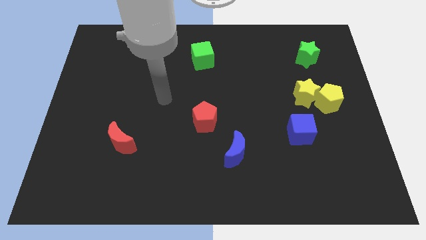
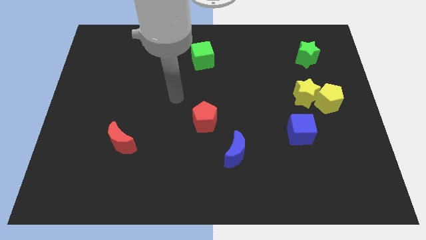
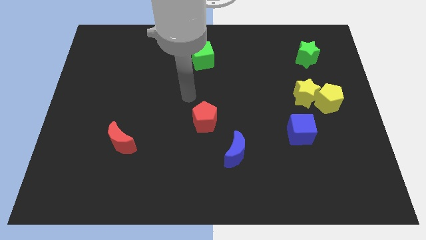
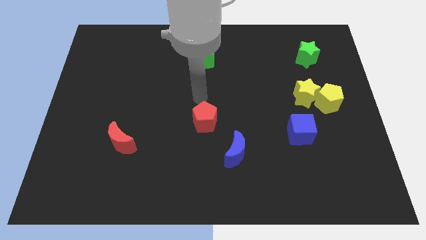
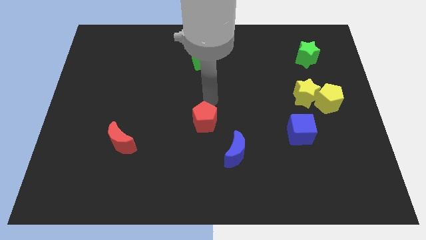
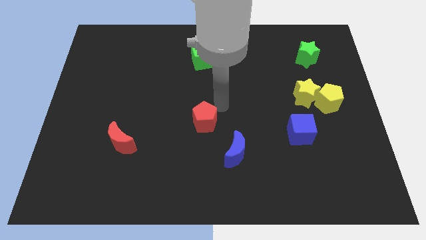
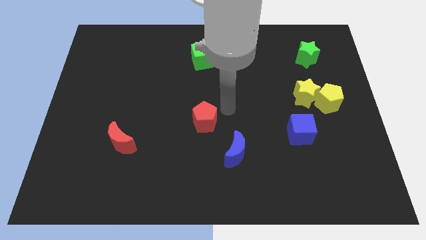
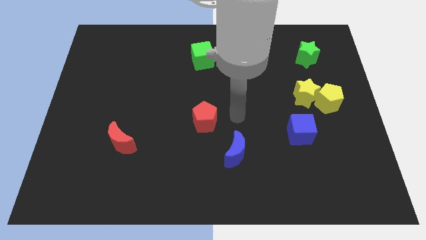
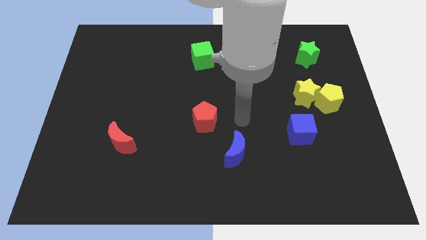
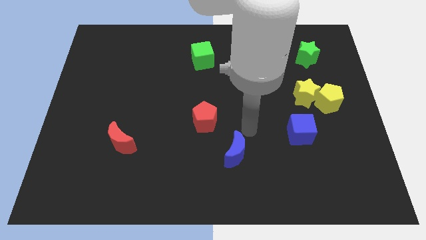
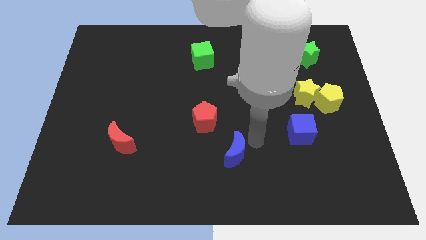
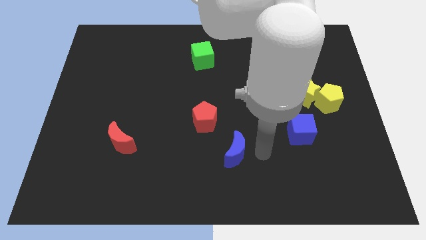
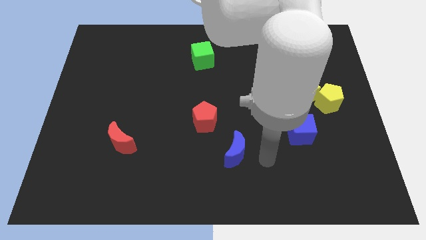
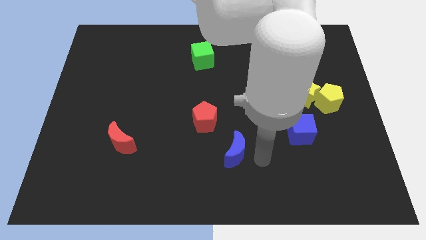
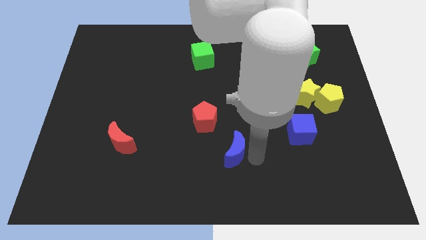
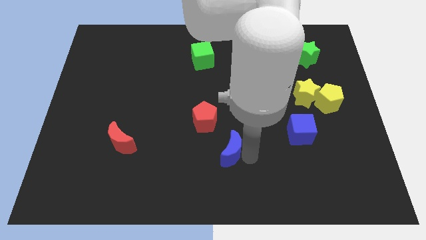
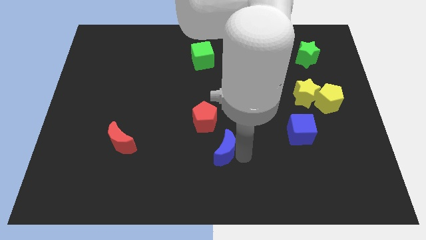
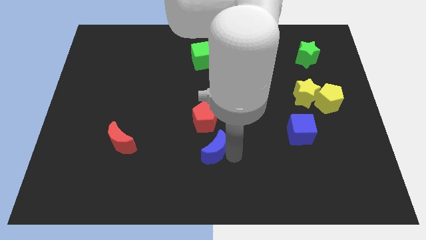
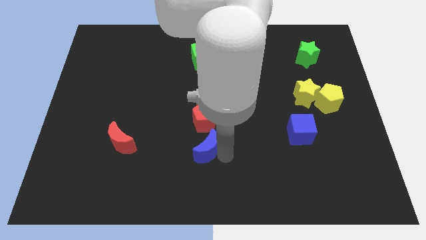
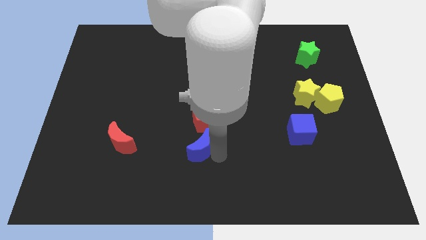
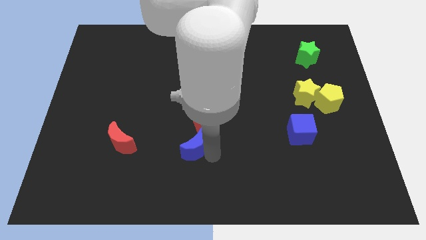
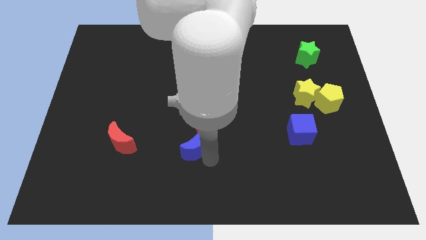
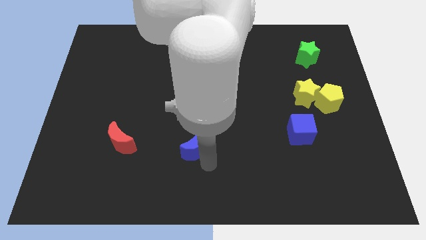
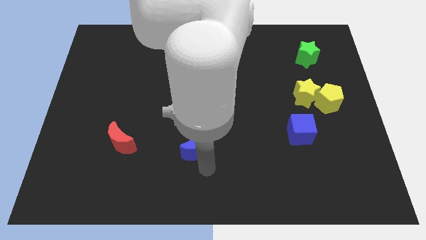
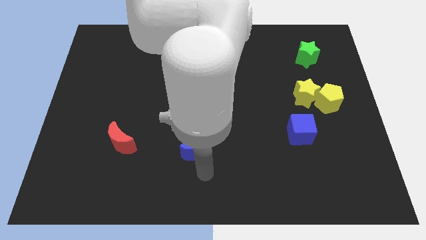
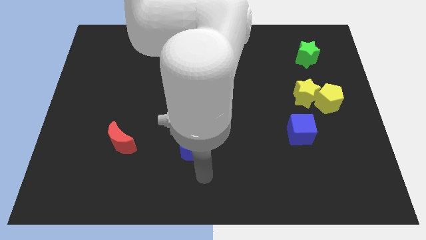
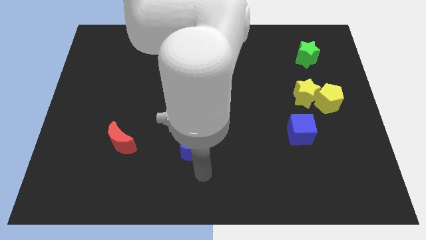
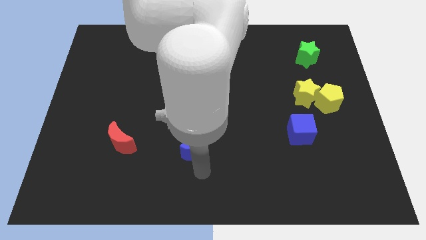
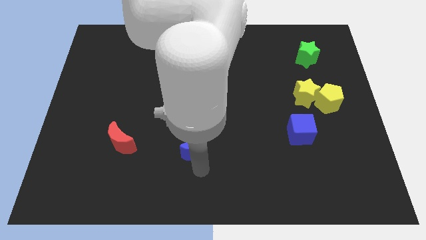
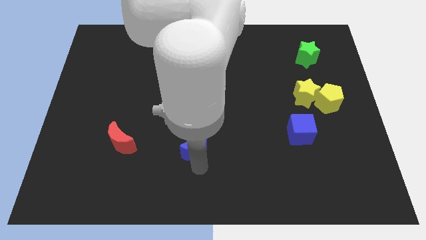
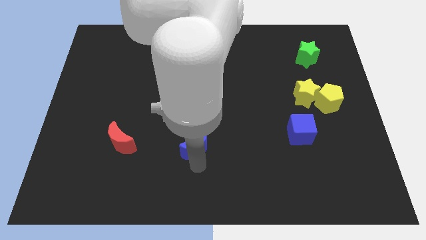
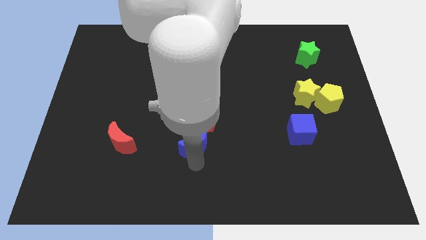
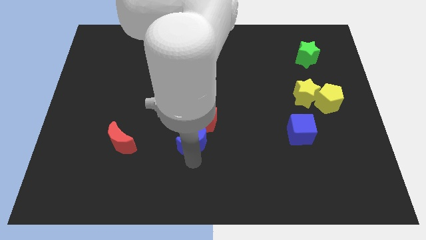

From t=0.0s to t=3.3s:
push the blue moon a bit upwards and left

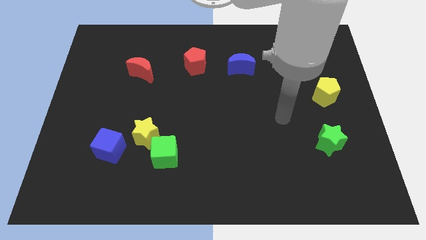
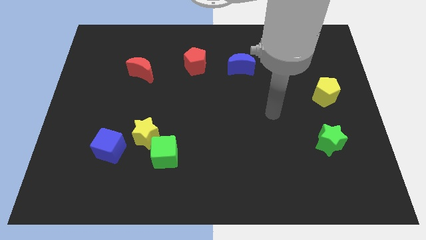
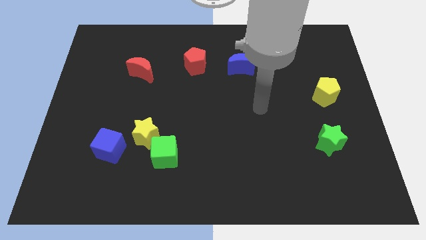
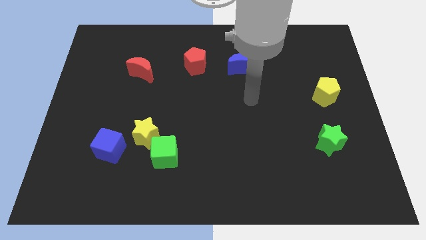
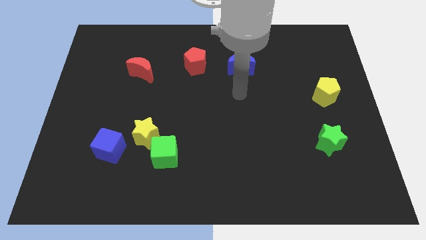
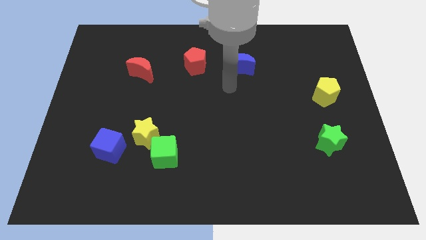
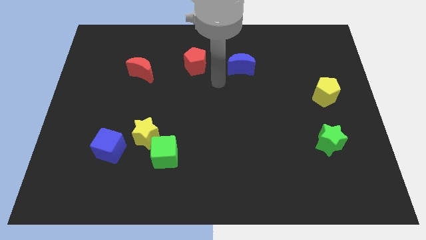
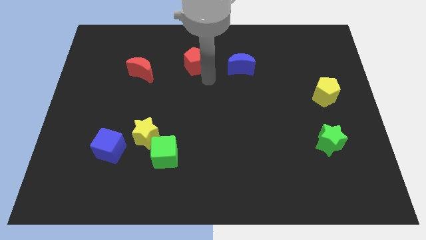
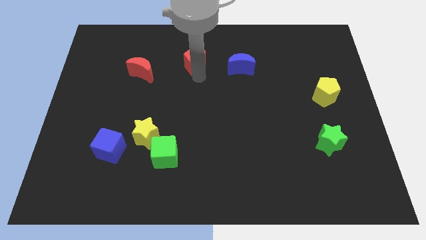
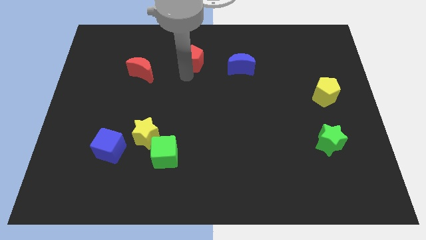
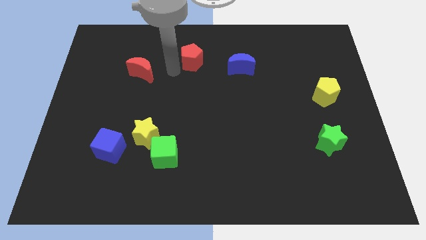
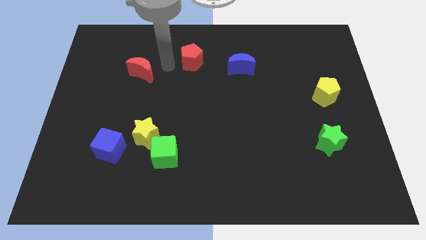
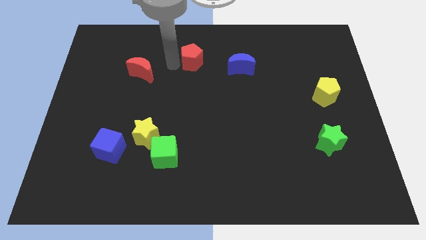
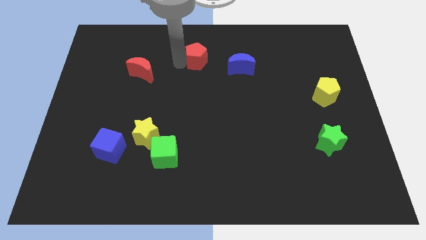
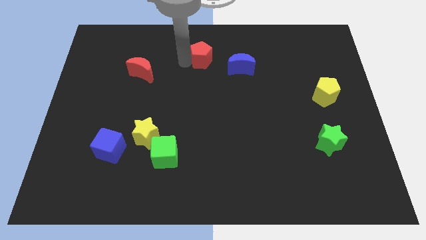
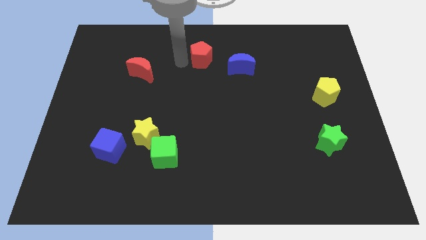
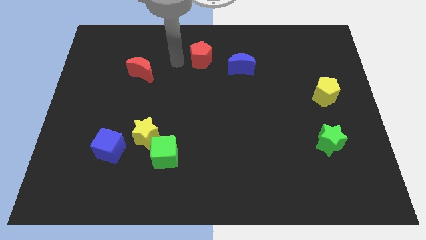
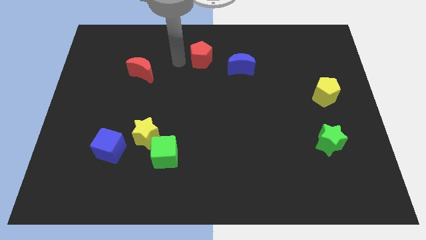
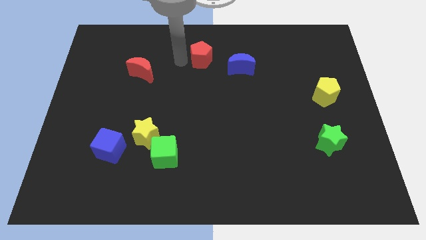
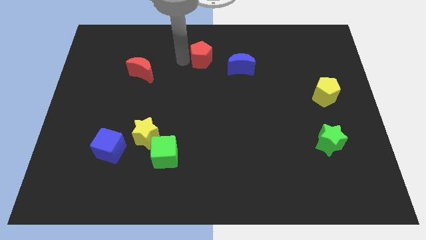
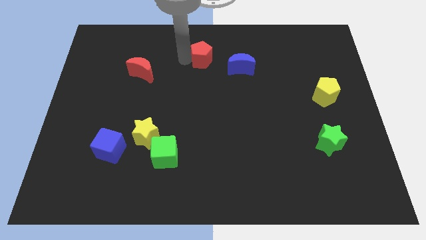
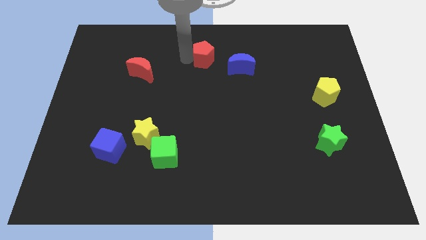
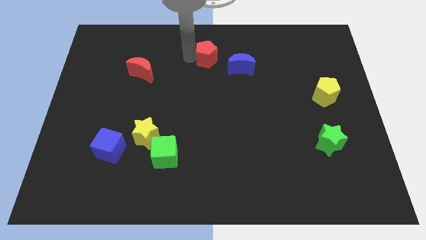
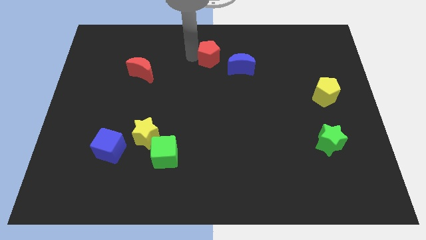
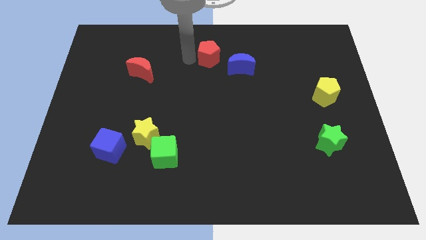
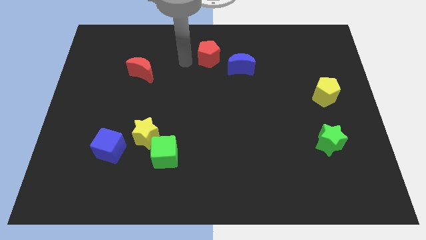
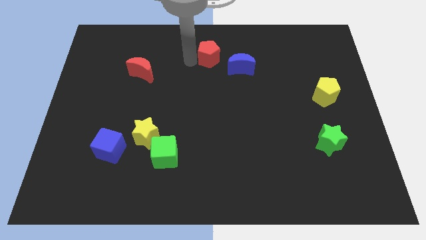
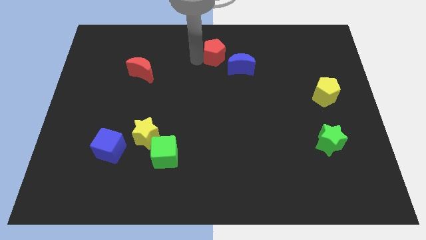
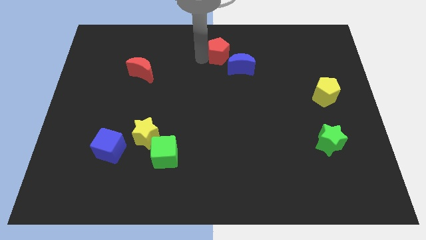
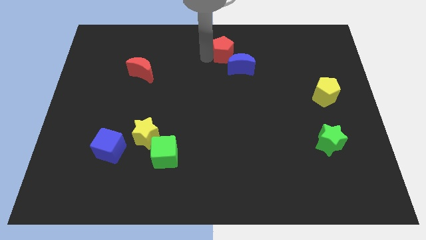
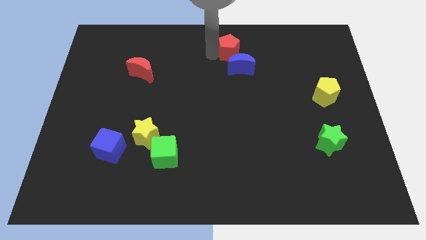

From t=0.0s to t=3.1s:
push the red pentagon right a bit

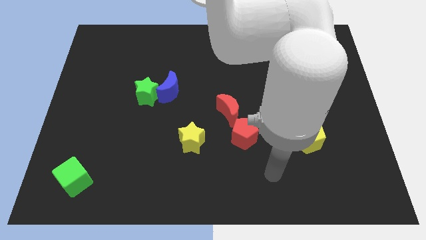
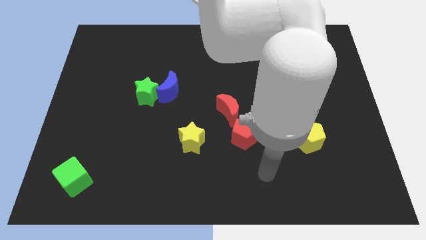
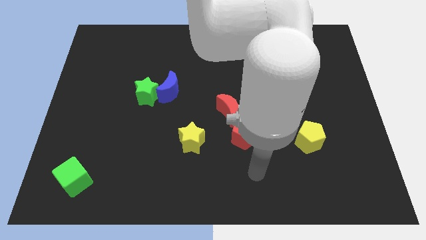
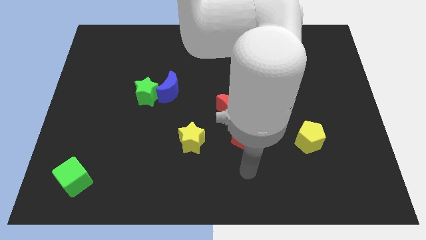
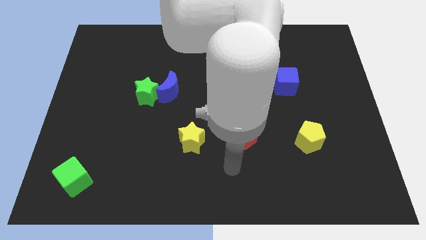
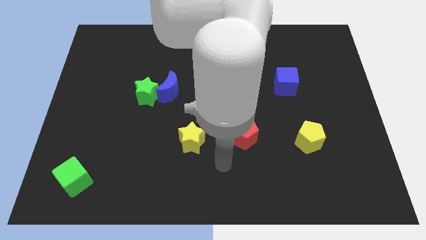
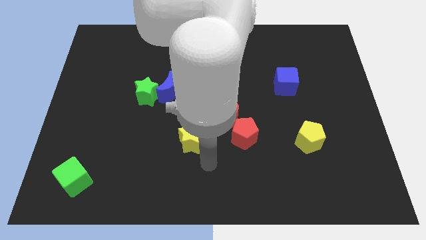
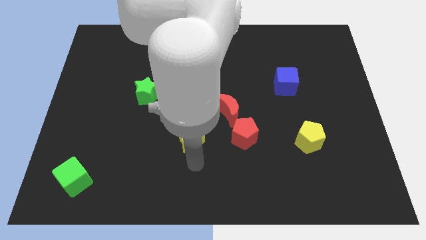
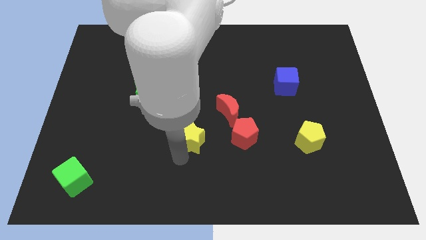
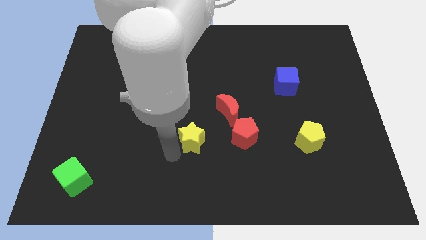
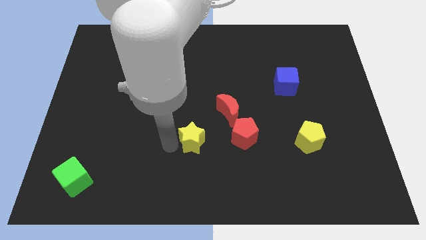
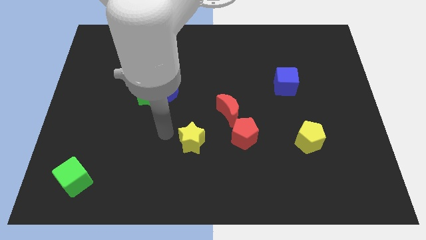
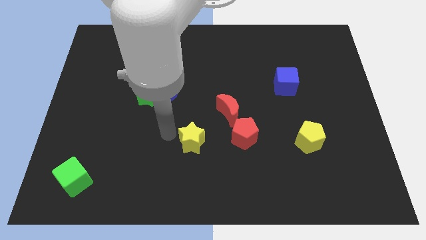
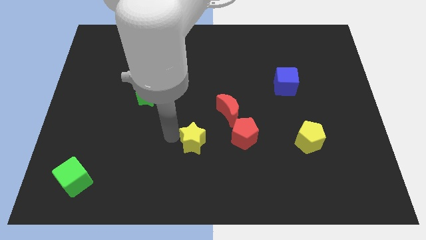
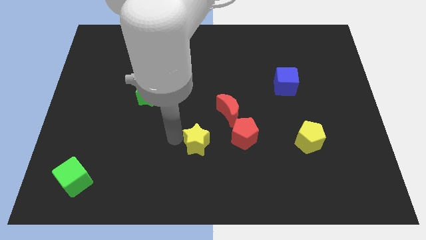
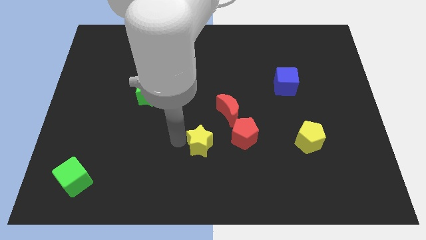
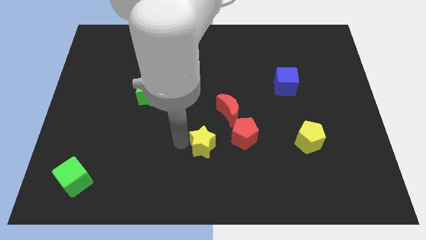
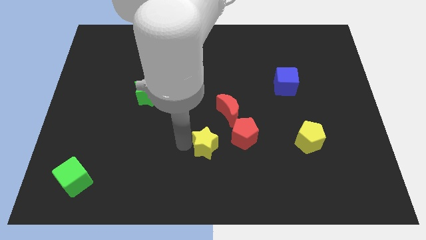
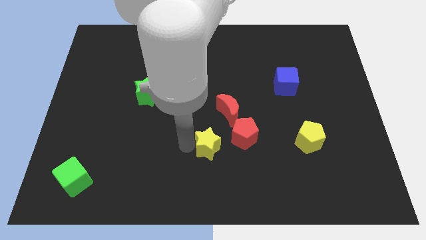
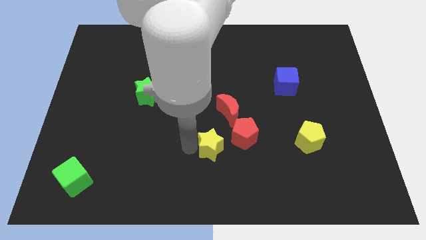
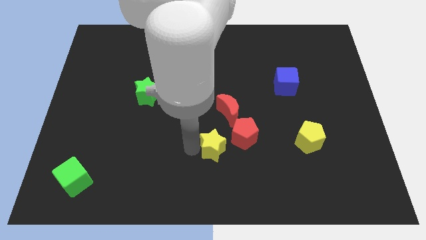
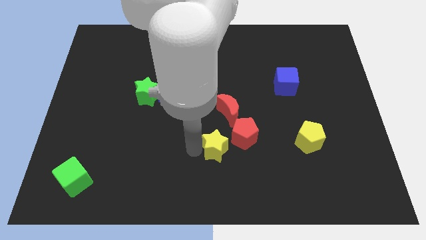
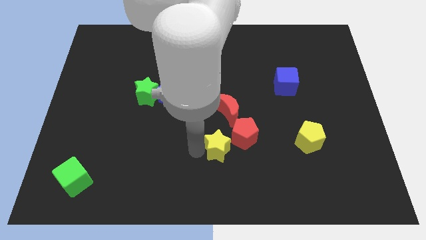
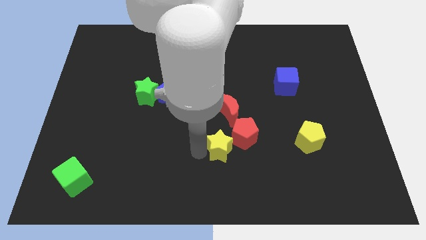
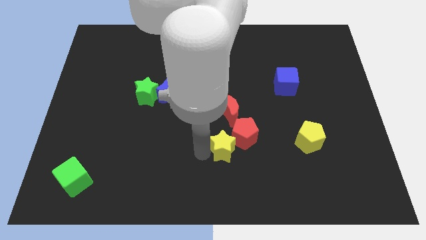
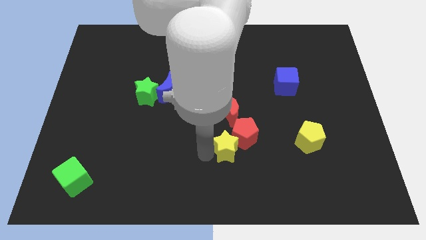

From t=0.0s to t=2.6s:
move the yellow star to the right a bit
